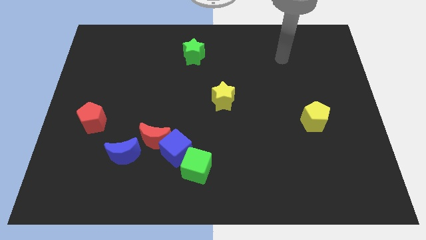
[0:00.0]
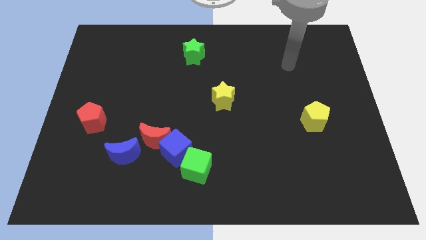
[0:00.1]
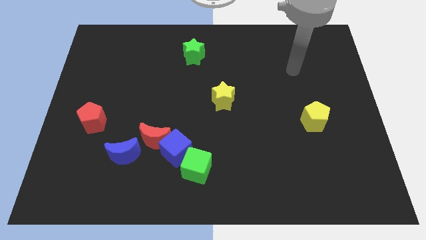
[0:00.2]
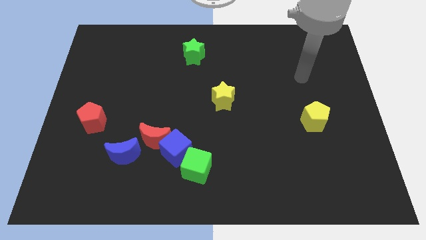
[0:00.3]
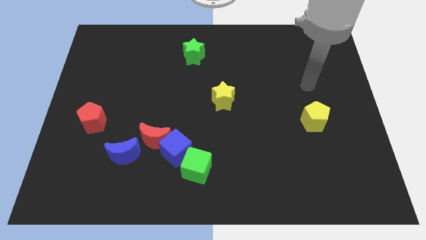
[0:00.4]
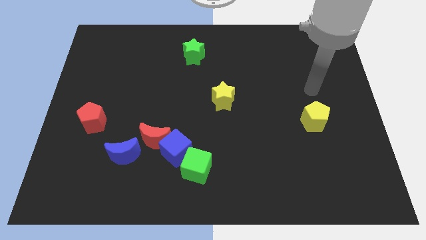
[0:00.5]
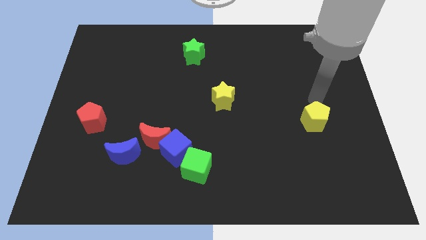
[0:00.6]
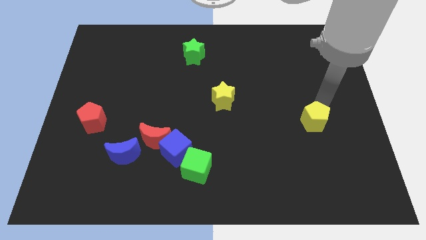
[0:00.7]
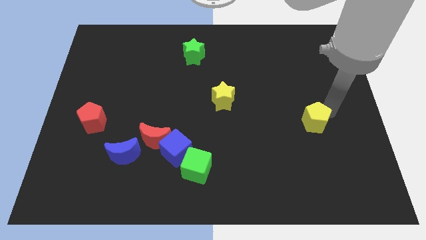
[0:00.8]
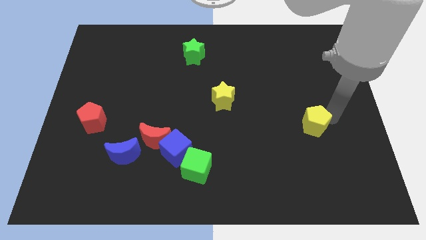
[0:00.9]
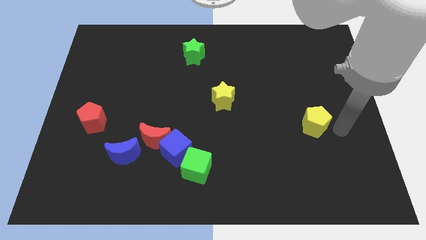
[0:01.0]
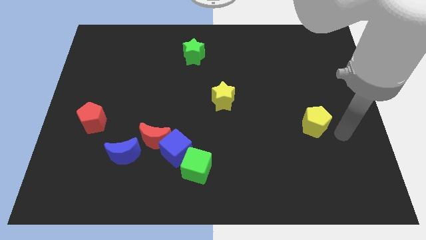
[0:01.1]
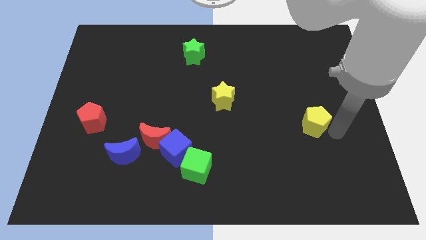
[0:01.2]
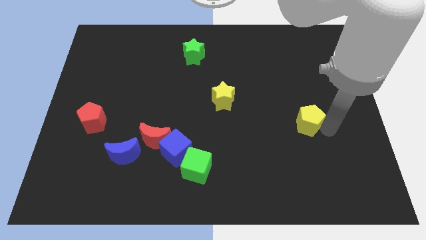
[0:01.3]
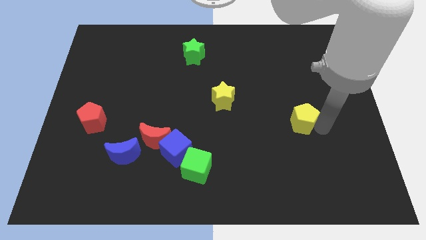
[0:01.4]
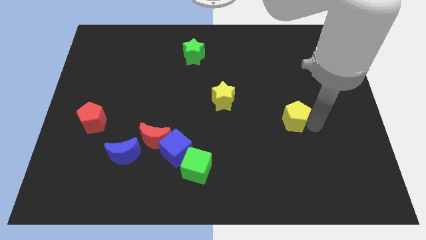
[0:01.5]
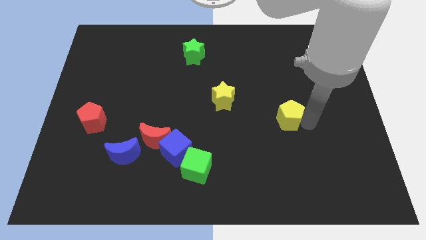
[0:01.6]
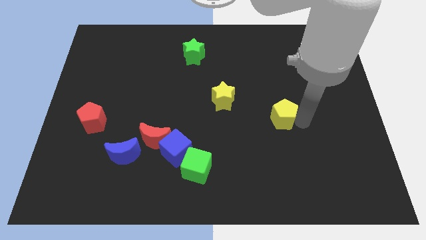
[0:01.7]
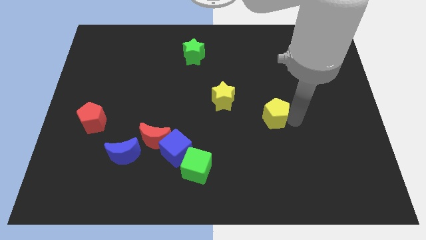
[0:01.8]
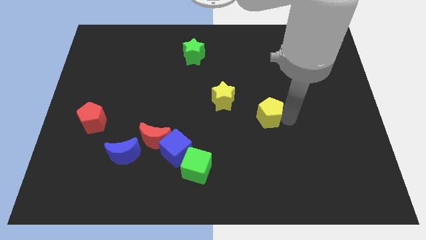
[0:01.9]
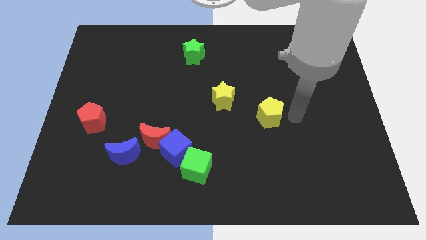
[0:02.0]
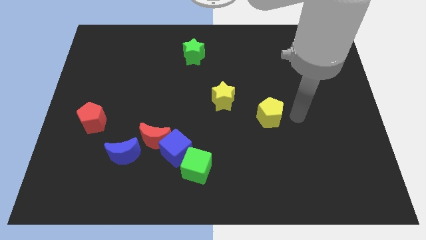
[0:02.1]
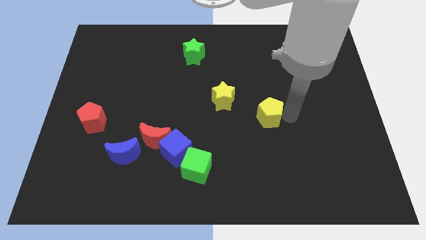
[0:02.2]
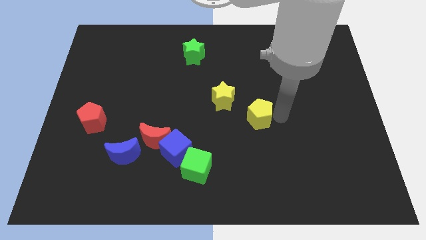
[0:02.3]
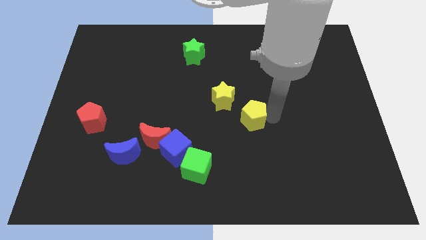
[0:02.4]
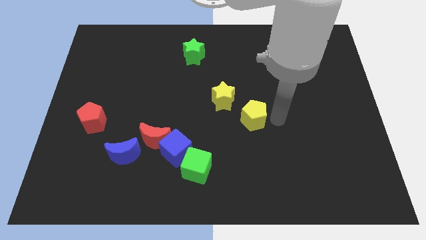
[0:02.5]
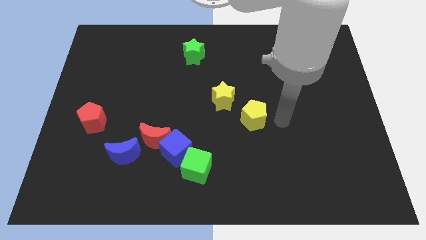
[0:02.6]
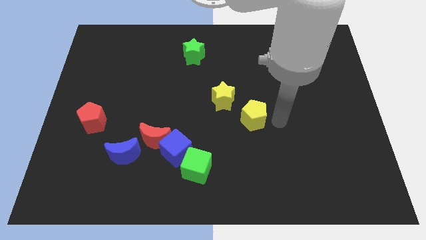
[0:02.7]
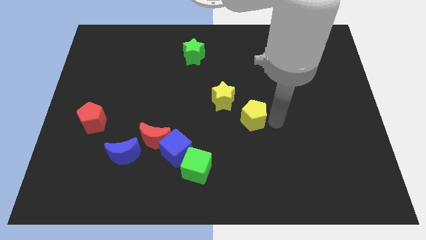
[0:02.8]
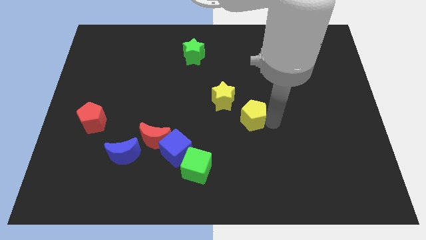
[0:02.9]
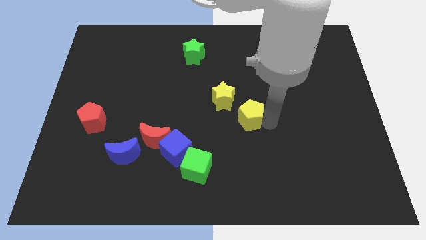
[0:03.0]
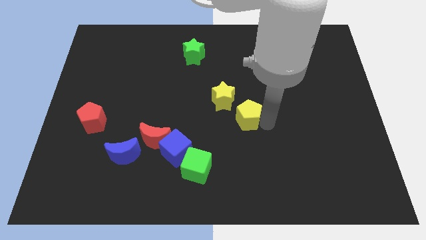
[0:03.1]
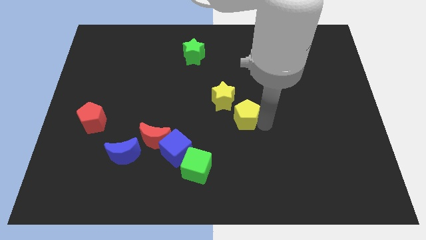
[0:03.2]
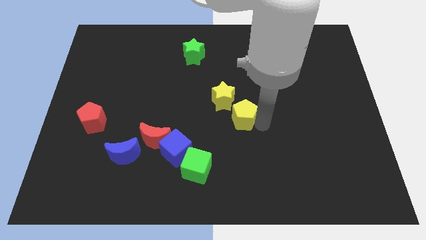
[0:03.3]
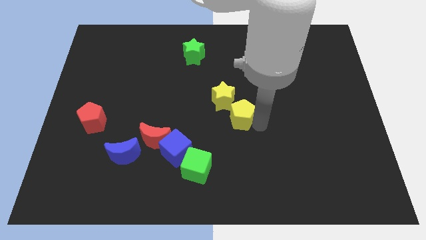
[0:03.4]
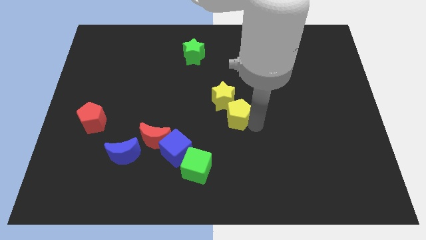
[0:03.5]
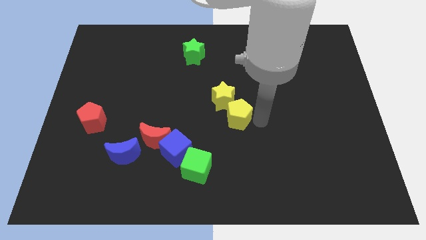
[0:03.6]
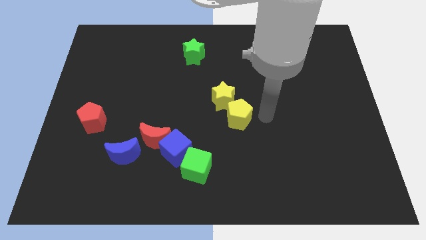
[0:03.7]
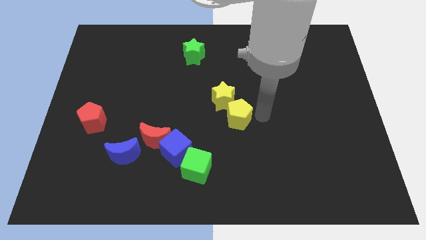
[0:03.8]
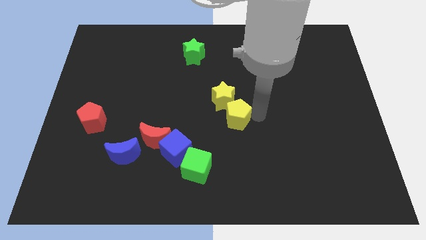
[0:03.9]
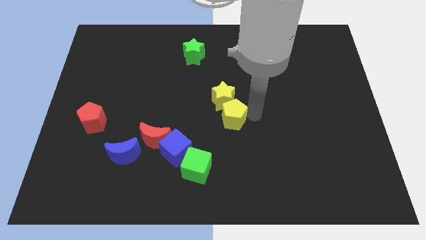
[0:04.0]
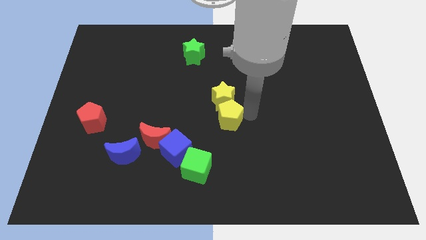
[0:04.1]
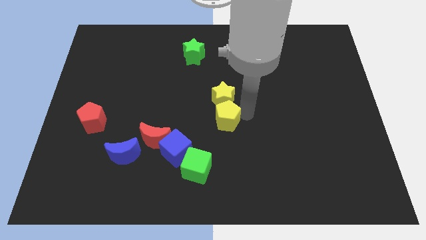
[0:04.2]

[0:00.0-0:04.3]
move the yellow pentagon to the left

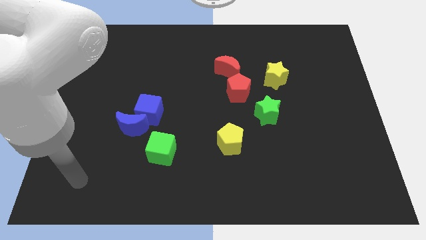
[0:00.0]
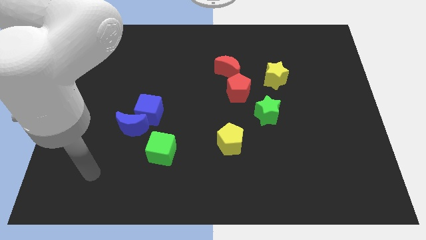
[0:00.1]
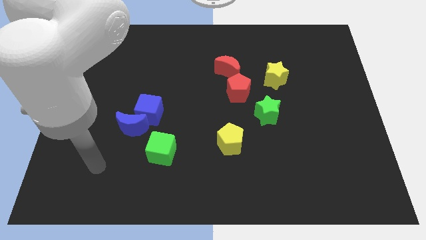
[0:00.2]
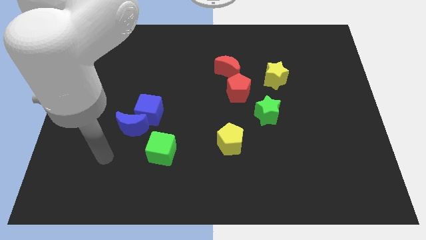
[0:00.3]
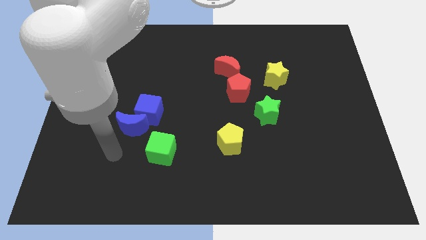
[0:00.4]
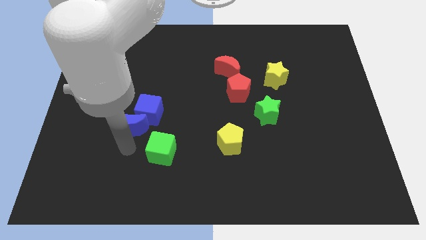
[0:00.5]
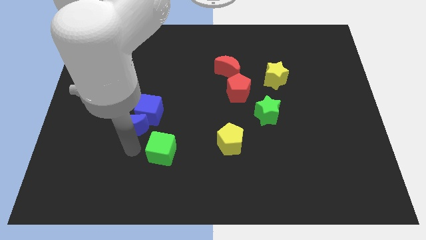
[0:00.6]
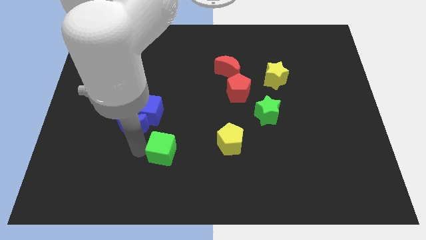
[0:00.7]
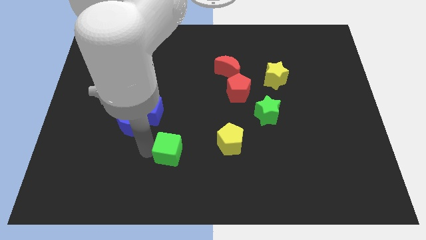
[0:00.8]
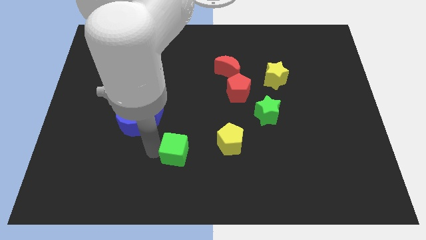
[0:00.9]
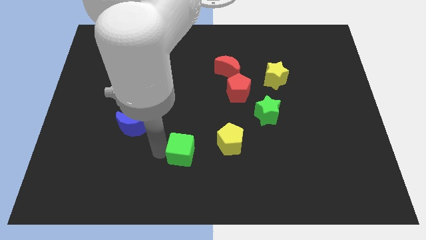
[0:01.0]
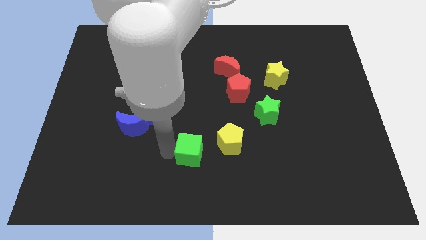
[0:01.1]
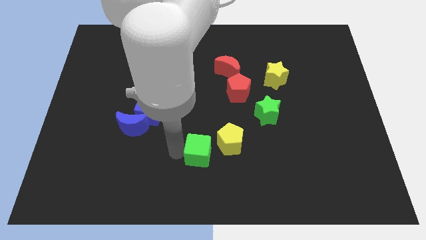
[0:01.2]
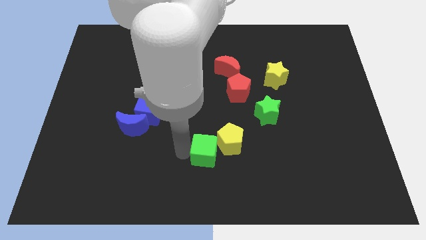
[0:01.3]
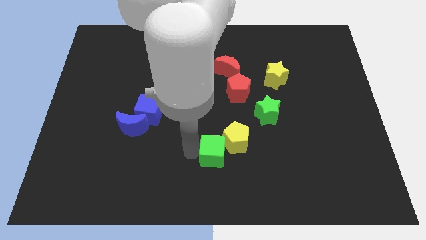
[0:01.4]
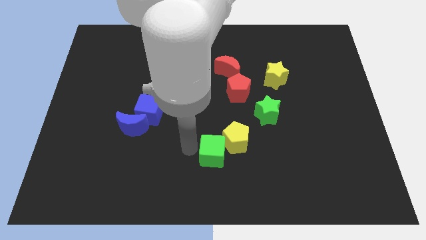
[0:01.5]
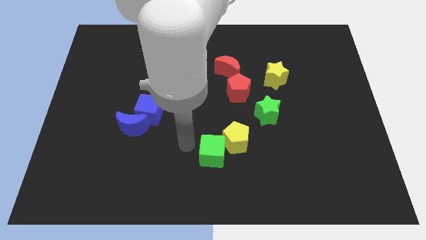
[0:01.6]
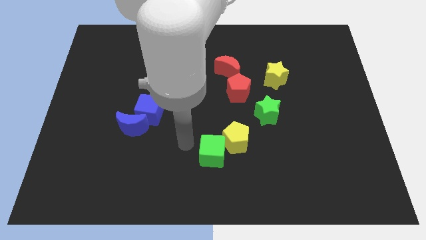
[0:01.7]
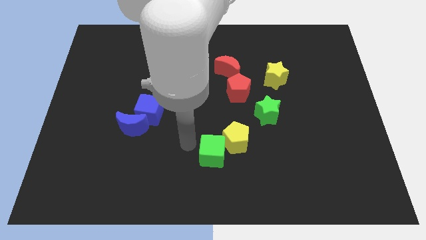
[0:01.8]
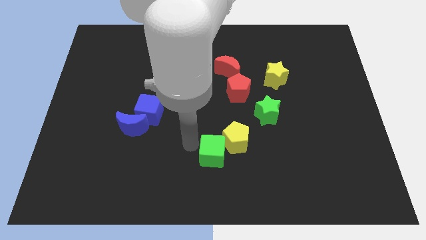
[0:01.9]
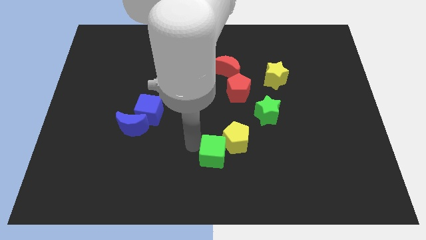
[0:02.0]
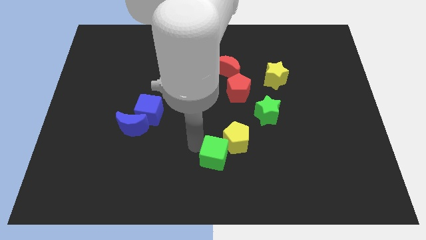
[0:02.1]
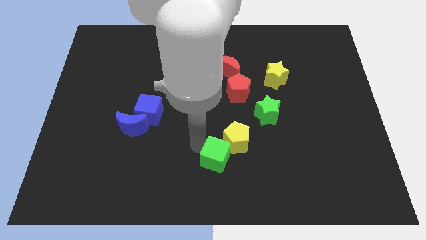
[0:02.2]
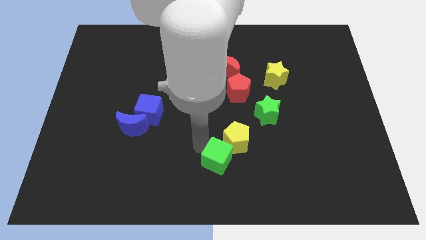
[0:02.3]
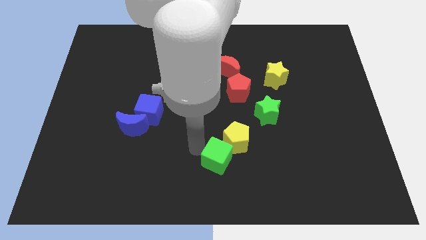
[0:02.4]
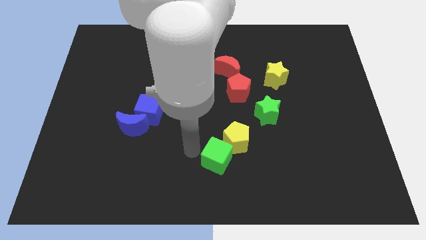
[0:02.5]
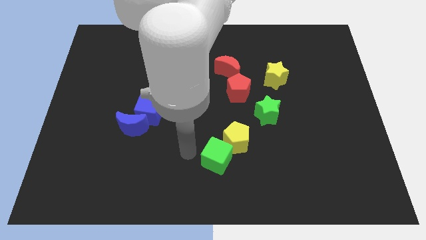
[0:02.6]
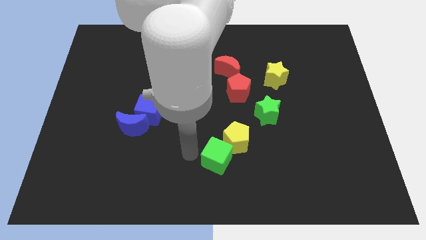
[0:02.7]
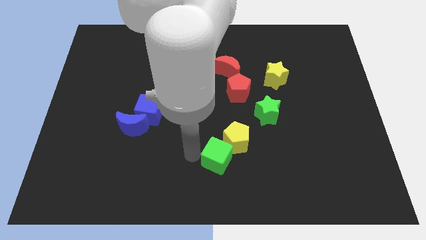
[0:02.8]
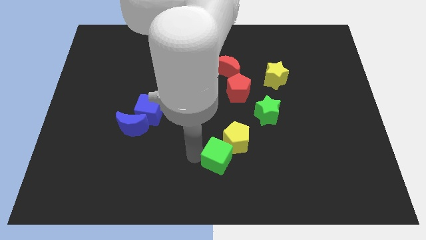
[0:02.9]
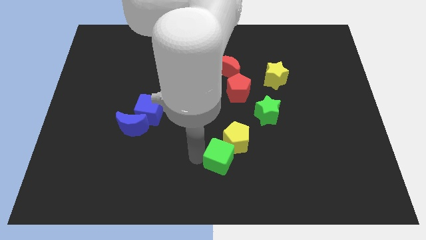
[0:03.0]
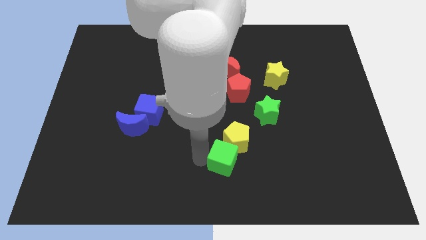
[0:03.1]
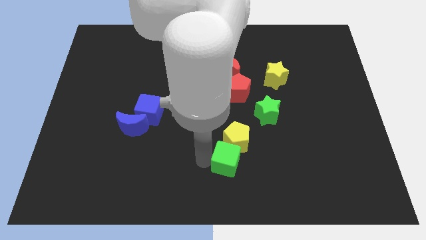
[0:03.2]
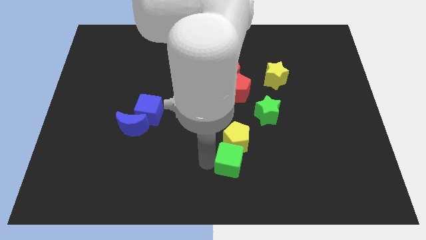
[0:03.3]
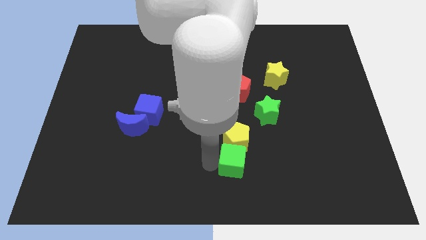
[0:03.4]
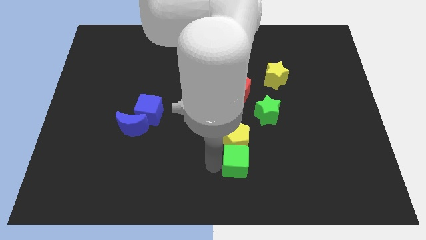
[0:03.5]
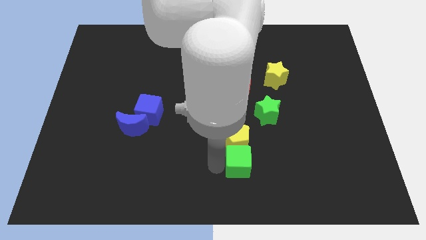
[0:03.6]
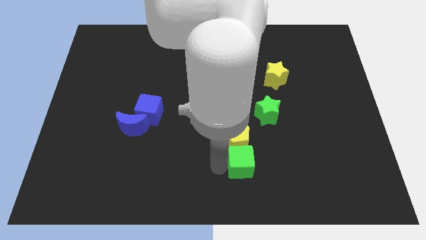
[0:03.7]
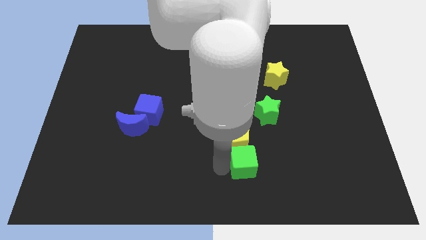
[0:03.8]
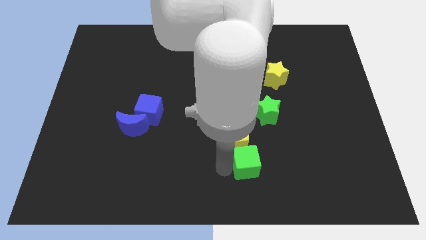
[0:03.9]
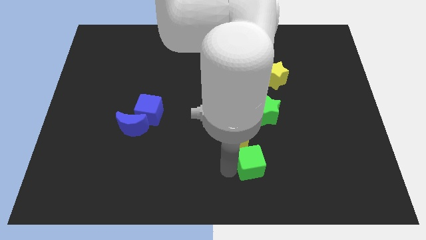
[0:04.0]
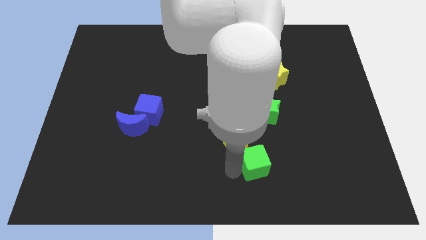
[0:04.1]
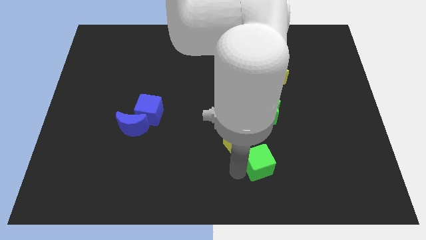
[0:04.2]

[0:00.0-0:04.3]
move the green cube to the right
